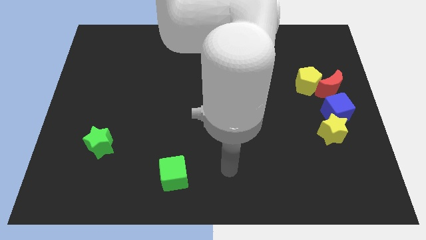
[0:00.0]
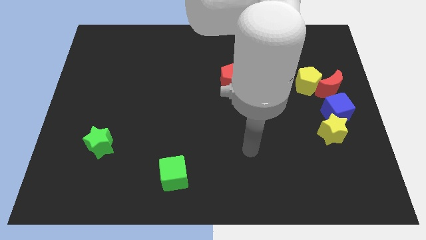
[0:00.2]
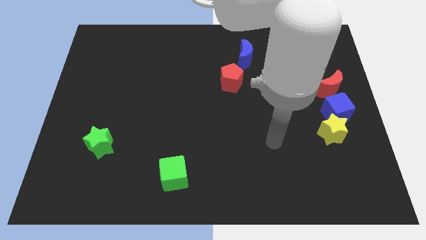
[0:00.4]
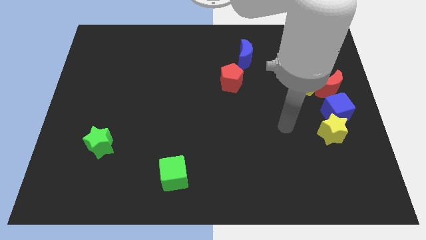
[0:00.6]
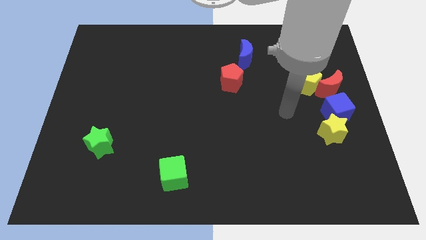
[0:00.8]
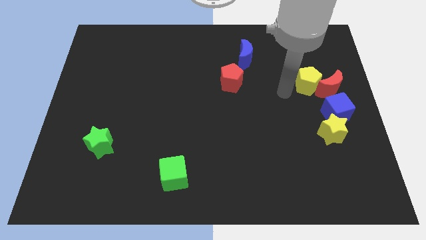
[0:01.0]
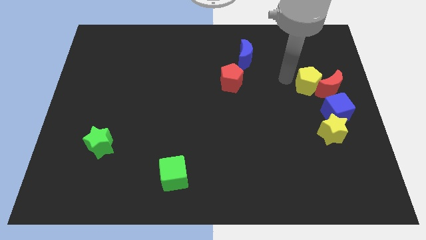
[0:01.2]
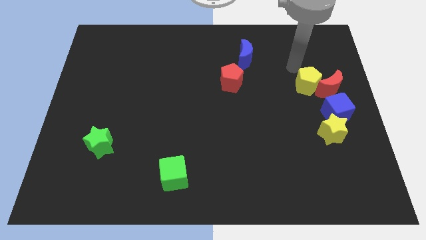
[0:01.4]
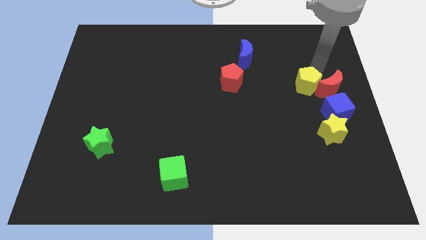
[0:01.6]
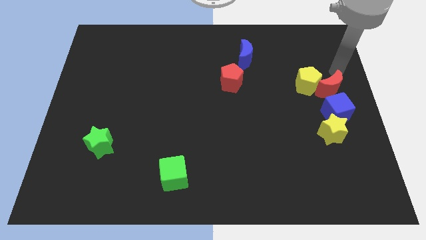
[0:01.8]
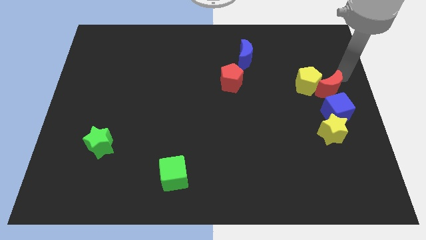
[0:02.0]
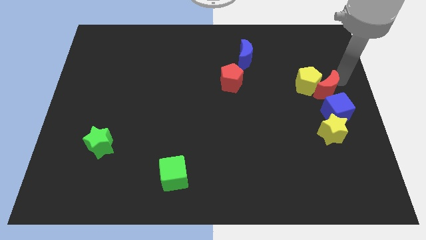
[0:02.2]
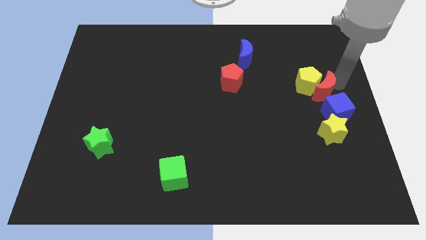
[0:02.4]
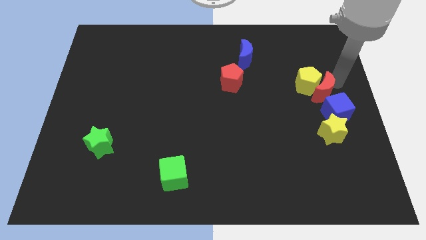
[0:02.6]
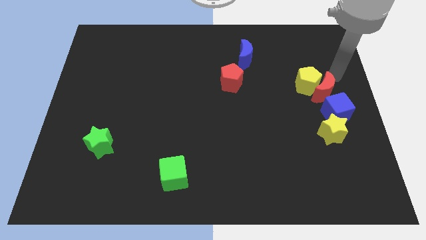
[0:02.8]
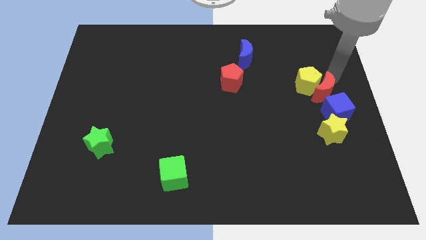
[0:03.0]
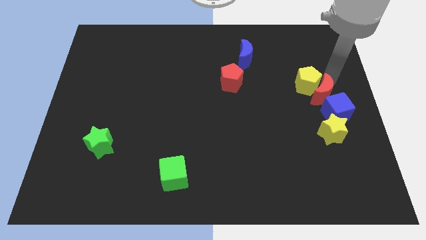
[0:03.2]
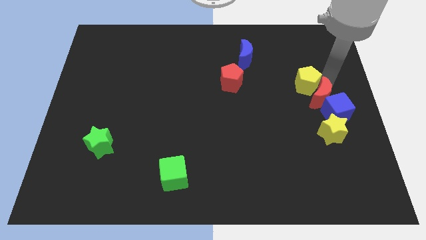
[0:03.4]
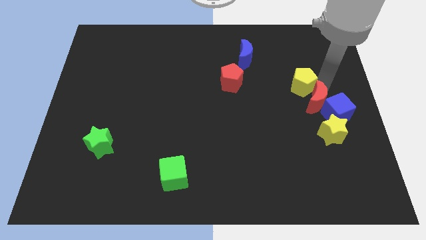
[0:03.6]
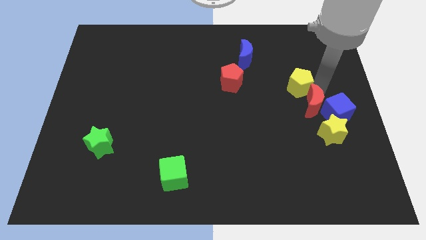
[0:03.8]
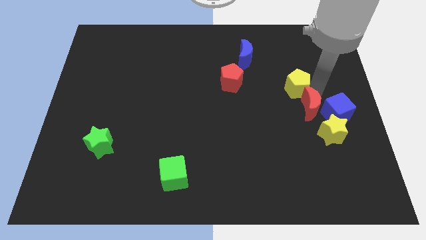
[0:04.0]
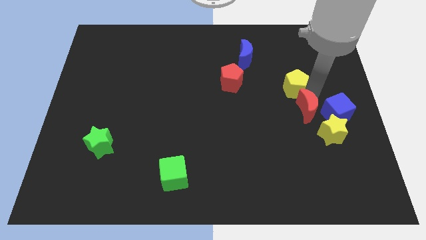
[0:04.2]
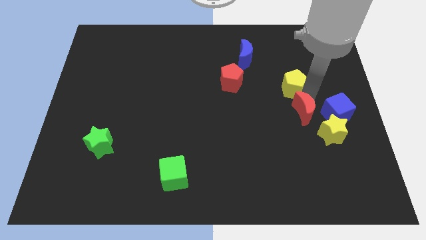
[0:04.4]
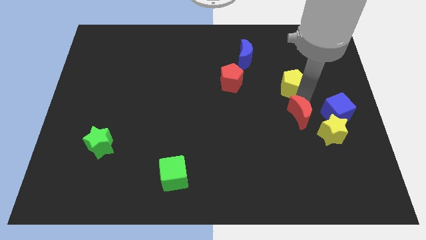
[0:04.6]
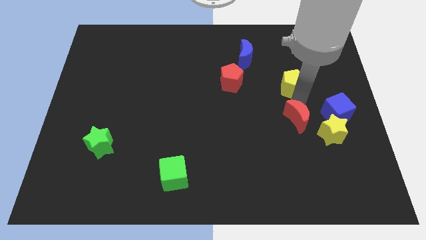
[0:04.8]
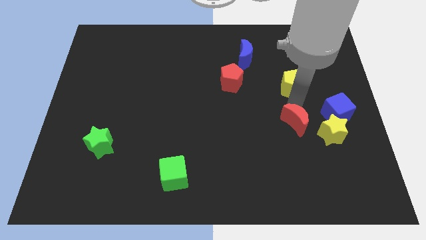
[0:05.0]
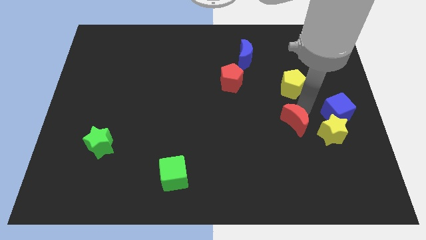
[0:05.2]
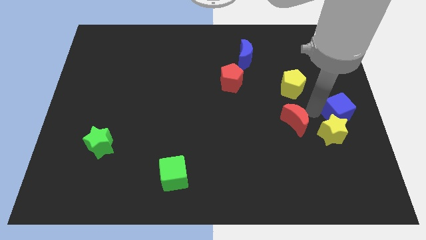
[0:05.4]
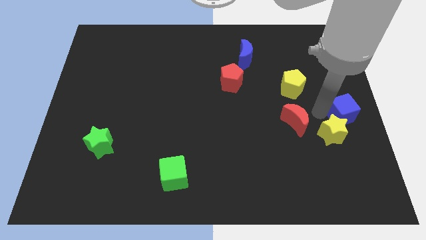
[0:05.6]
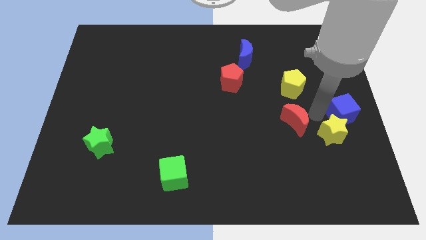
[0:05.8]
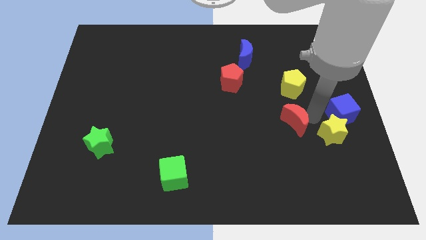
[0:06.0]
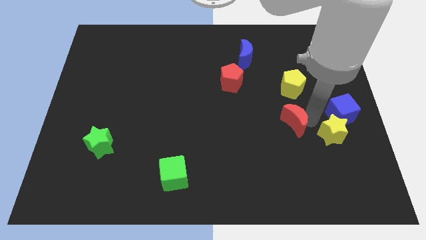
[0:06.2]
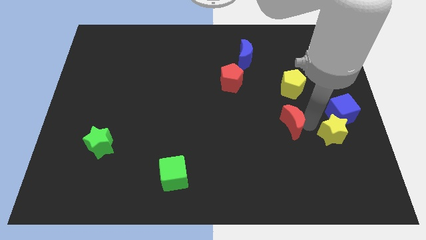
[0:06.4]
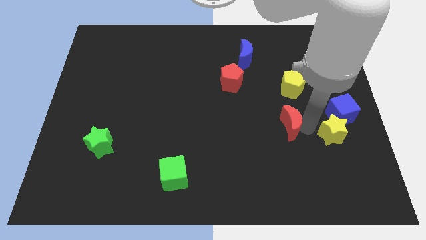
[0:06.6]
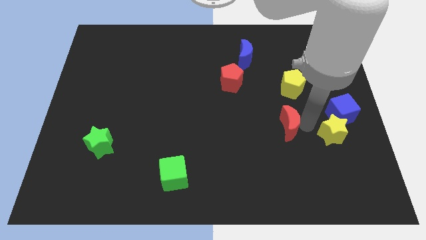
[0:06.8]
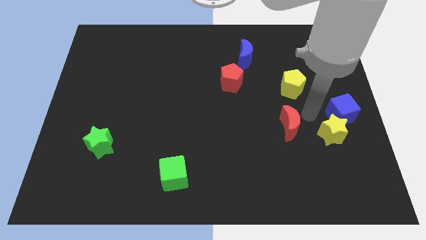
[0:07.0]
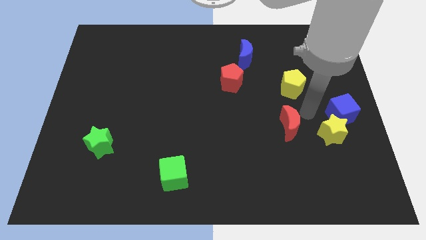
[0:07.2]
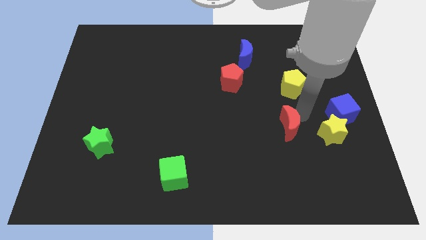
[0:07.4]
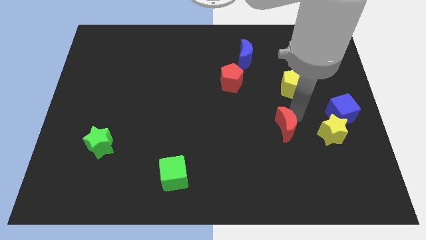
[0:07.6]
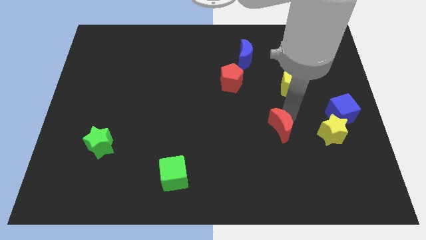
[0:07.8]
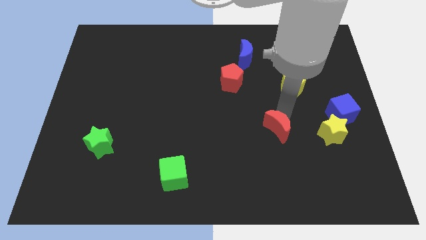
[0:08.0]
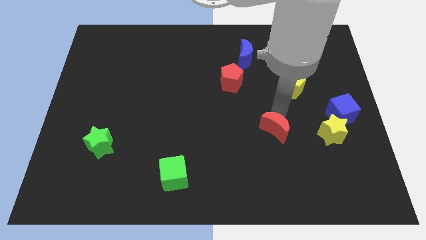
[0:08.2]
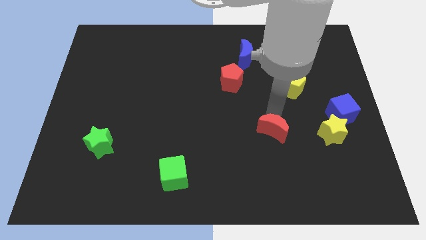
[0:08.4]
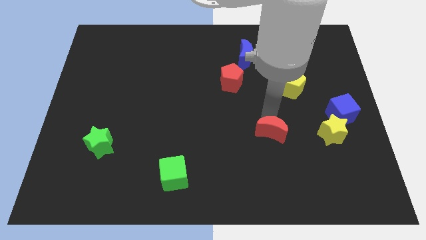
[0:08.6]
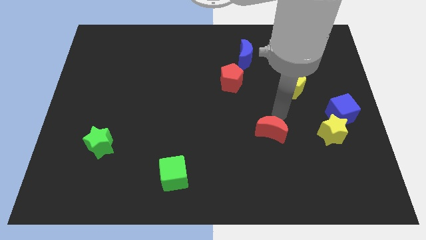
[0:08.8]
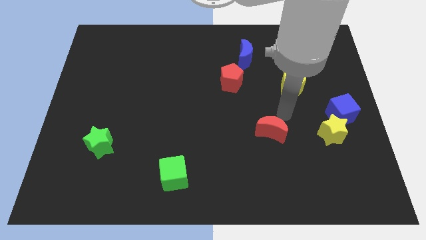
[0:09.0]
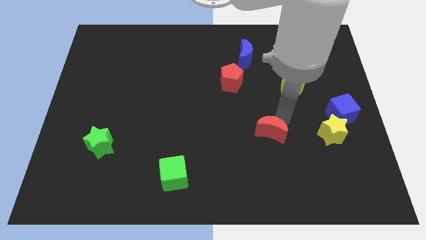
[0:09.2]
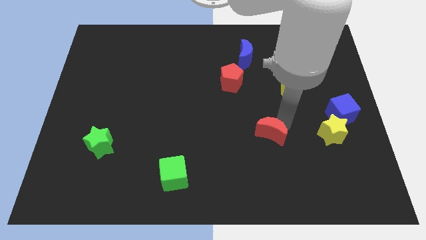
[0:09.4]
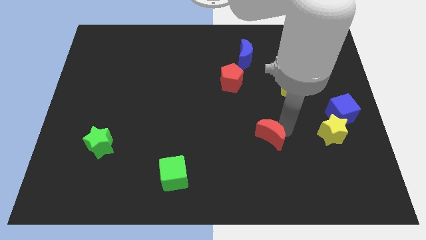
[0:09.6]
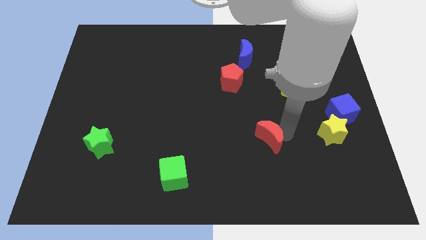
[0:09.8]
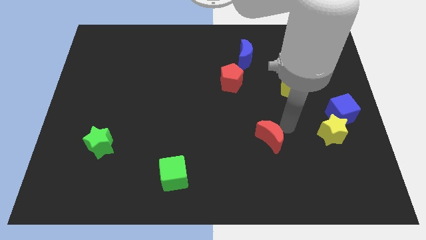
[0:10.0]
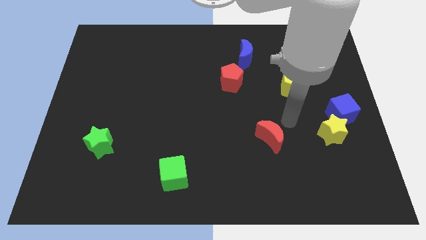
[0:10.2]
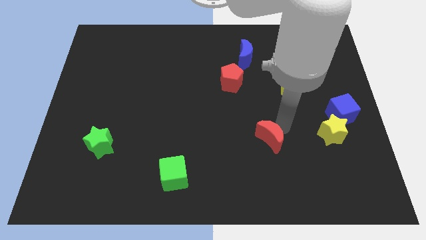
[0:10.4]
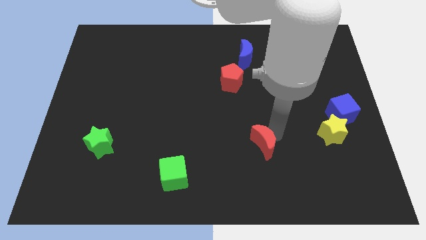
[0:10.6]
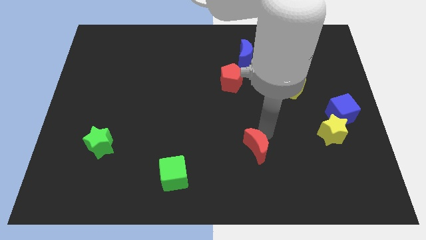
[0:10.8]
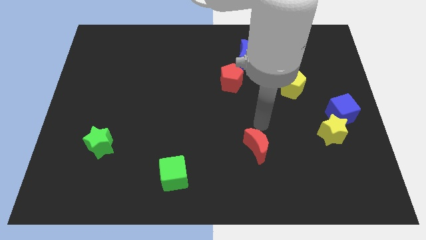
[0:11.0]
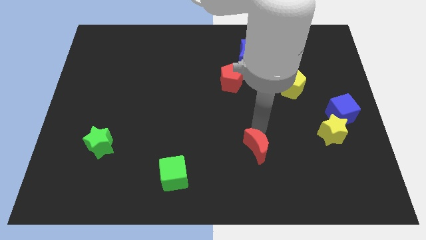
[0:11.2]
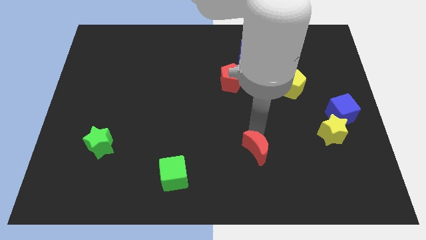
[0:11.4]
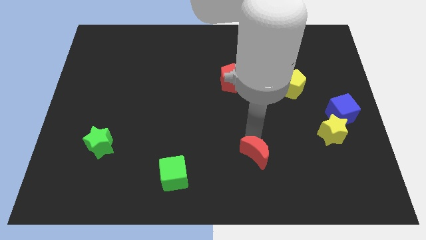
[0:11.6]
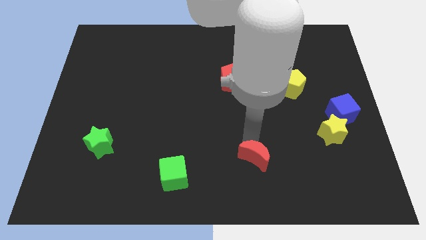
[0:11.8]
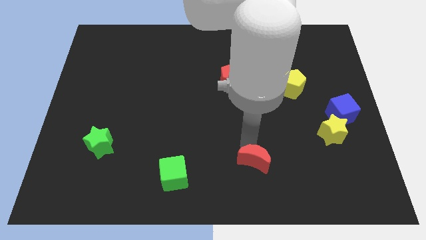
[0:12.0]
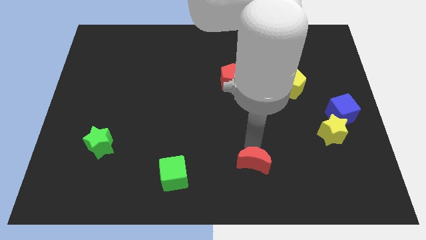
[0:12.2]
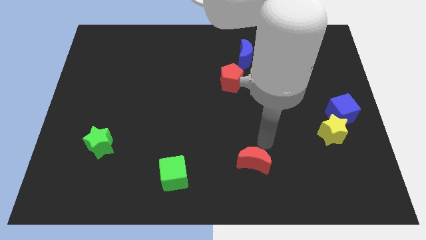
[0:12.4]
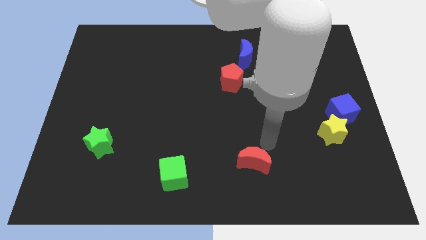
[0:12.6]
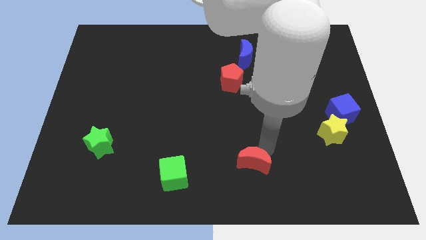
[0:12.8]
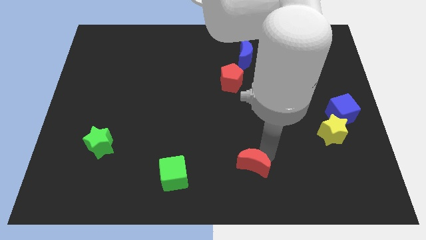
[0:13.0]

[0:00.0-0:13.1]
move the red moon to the bottom side
